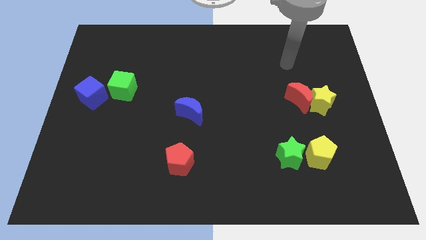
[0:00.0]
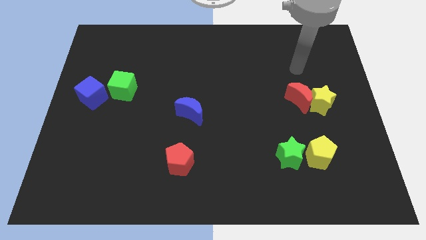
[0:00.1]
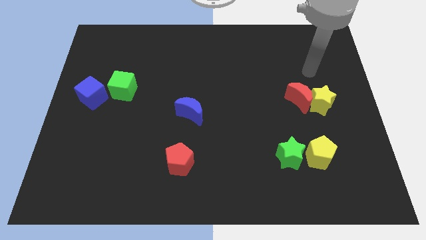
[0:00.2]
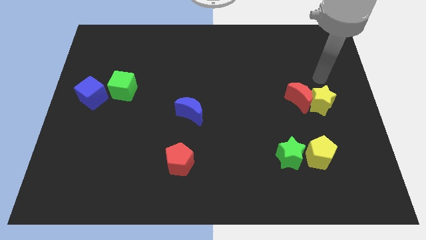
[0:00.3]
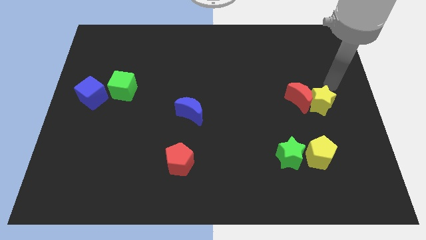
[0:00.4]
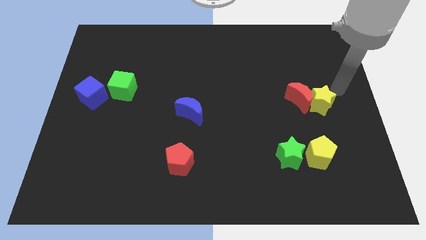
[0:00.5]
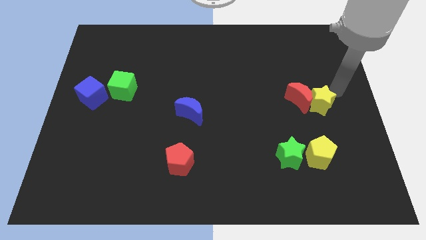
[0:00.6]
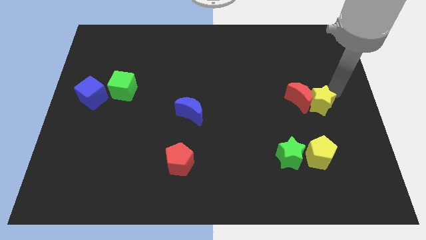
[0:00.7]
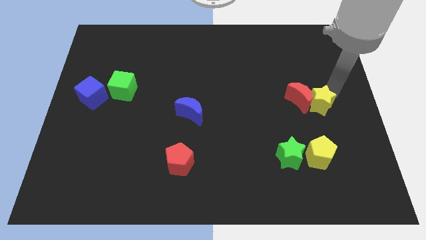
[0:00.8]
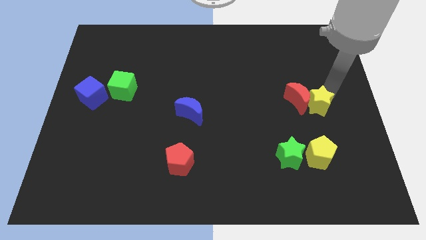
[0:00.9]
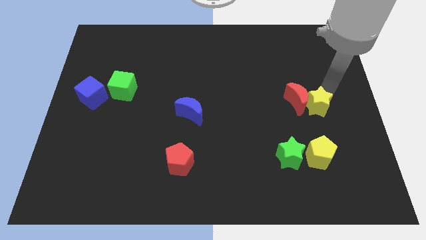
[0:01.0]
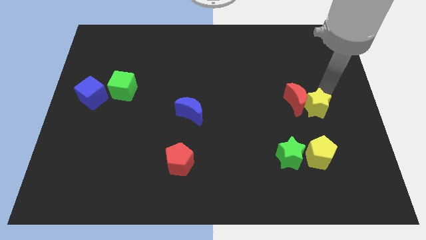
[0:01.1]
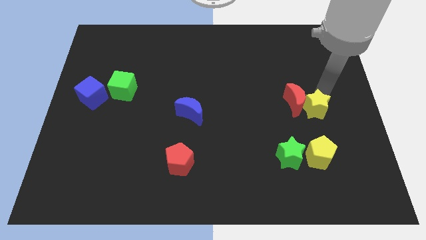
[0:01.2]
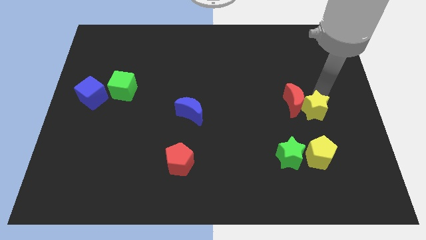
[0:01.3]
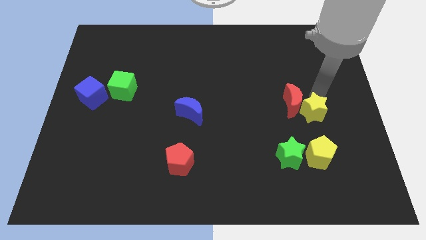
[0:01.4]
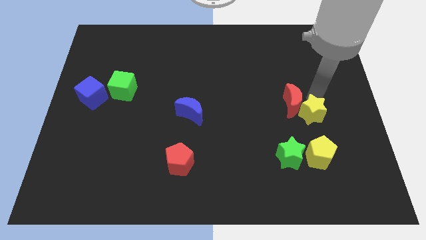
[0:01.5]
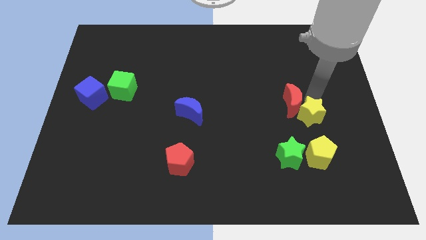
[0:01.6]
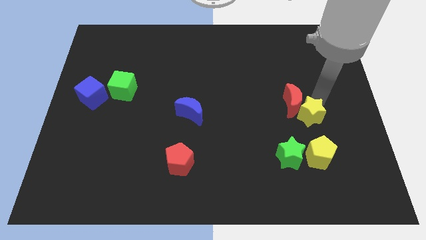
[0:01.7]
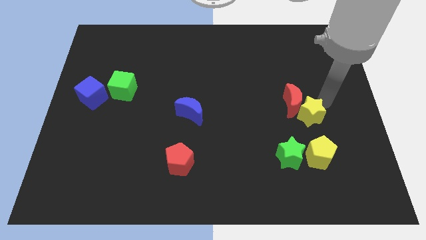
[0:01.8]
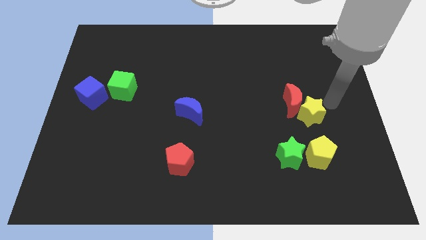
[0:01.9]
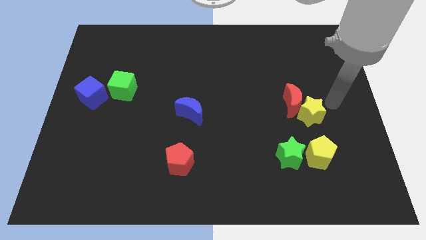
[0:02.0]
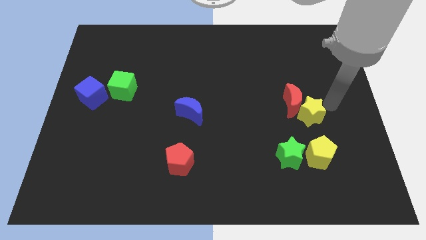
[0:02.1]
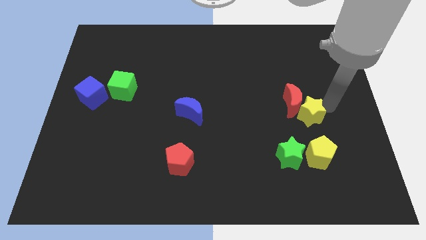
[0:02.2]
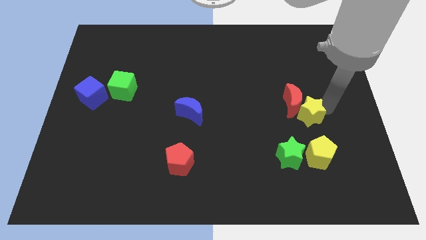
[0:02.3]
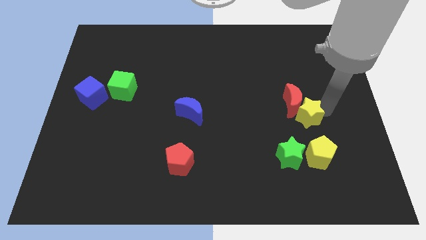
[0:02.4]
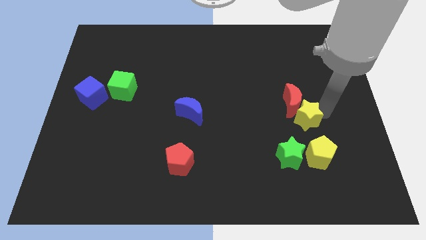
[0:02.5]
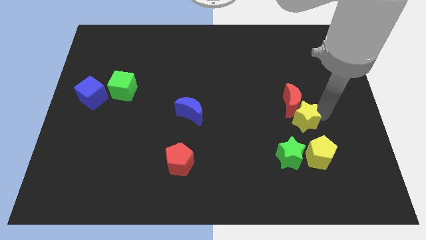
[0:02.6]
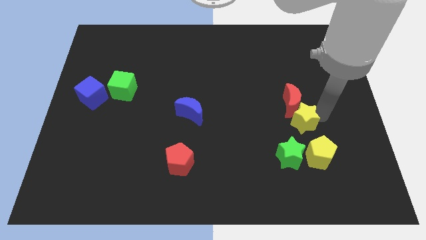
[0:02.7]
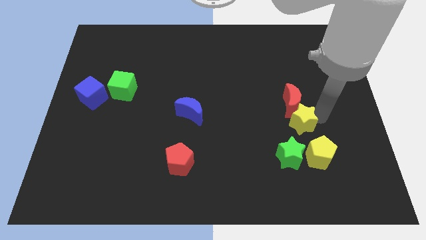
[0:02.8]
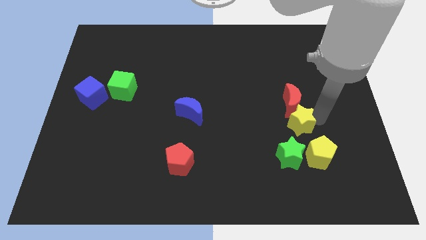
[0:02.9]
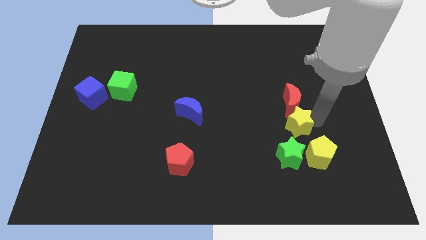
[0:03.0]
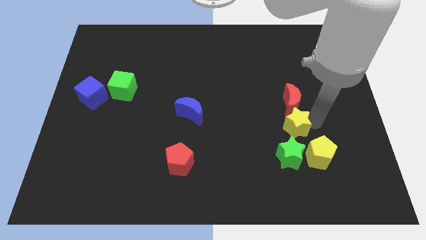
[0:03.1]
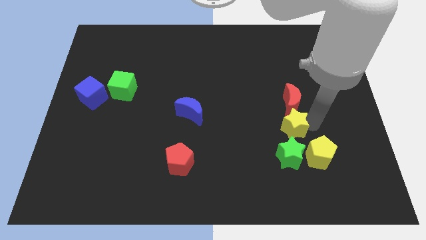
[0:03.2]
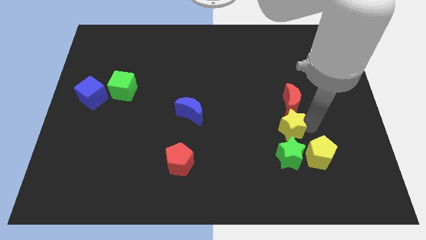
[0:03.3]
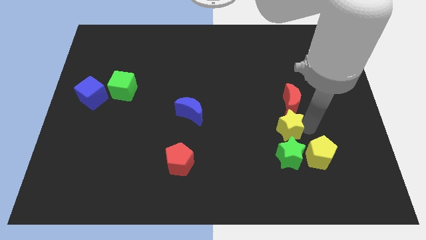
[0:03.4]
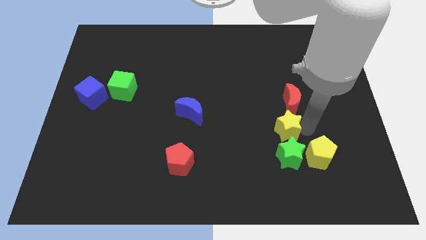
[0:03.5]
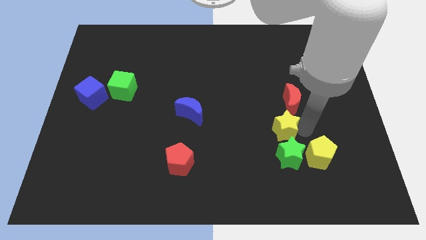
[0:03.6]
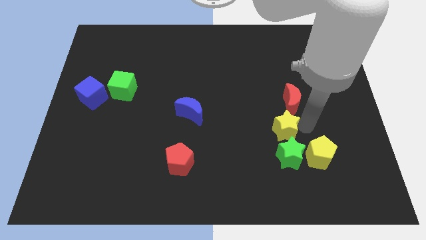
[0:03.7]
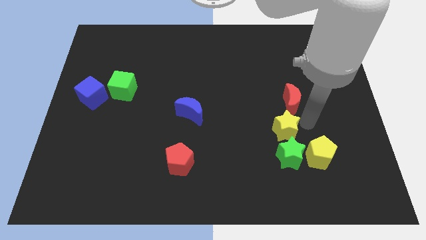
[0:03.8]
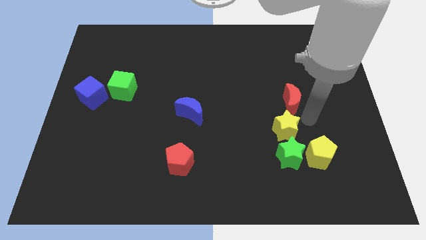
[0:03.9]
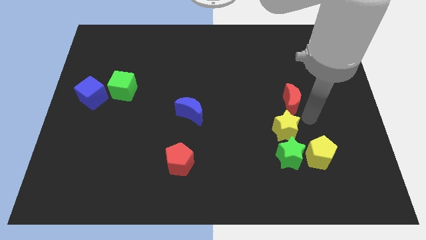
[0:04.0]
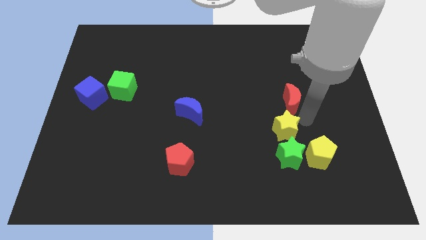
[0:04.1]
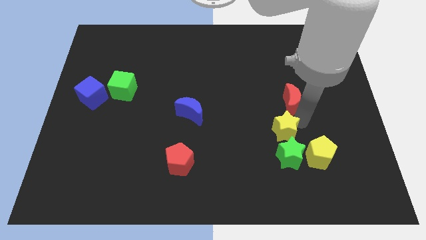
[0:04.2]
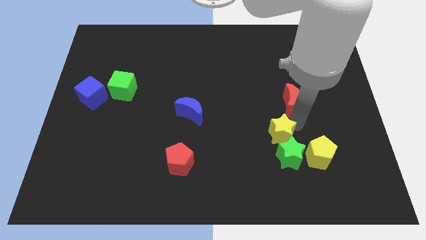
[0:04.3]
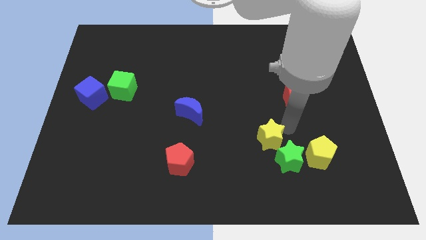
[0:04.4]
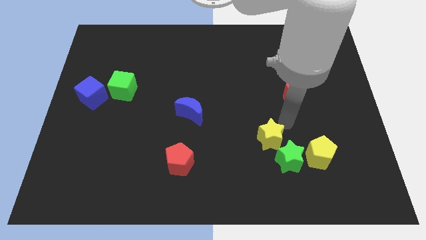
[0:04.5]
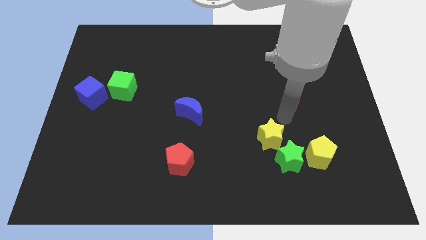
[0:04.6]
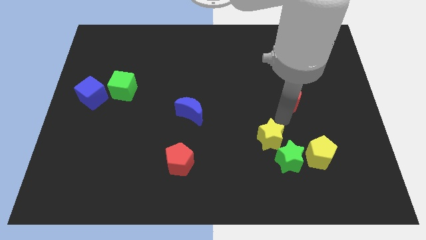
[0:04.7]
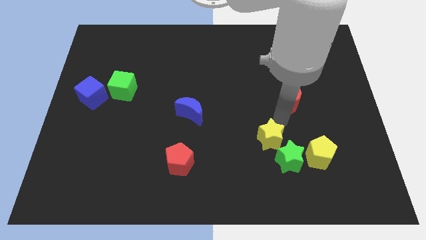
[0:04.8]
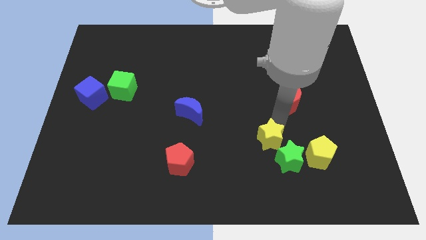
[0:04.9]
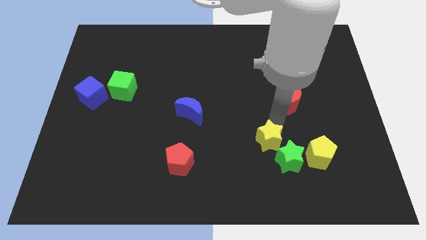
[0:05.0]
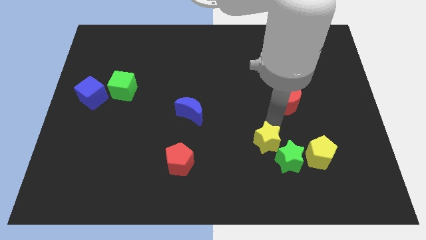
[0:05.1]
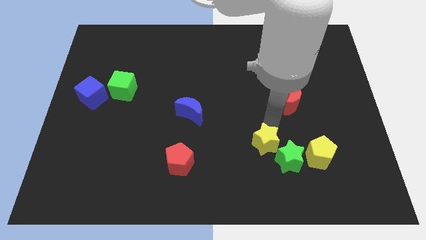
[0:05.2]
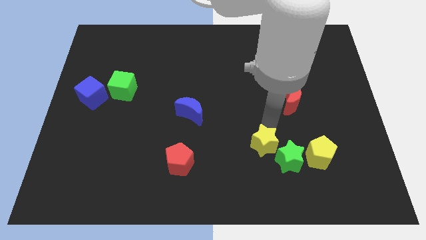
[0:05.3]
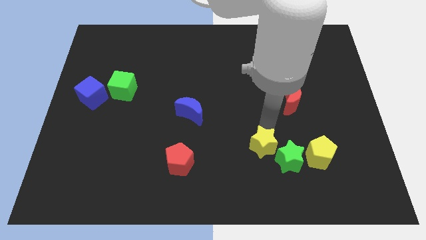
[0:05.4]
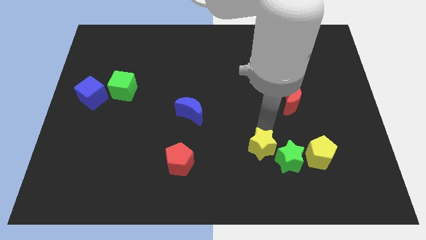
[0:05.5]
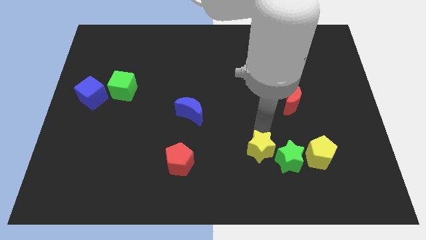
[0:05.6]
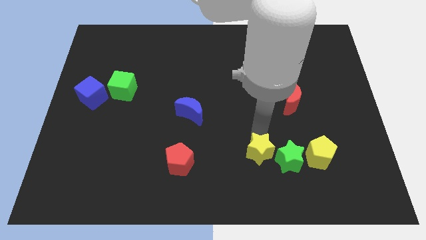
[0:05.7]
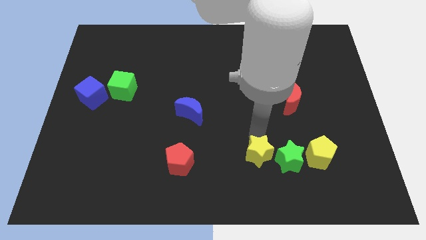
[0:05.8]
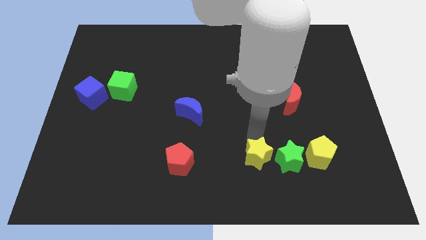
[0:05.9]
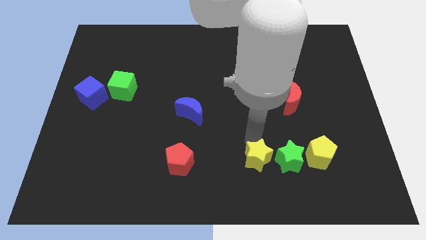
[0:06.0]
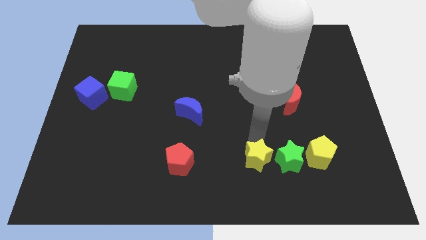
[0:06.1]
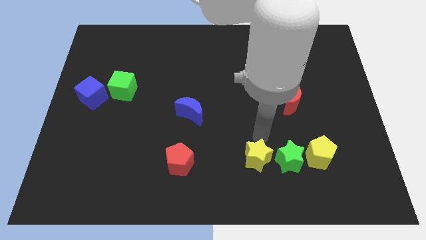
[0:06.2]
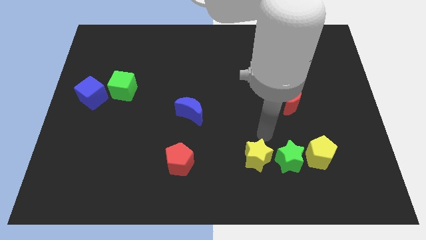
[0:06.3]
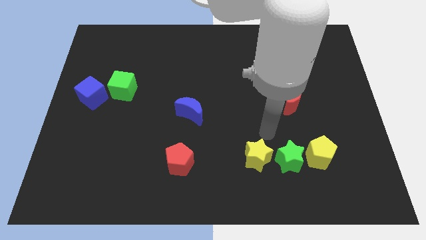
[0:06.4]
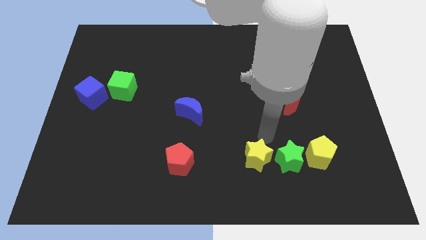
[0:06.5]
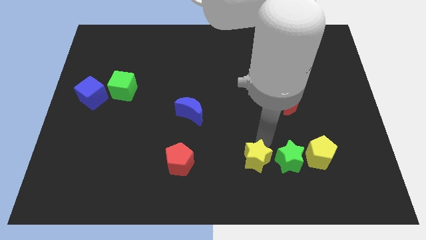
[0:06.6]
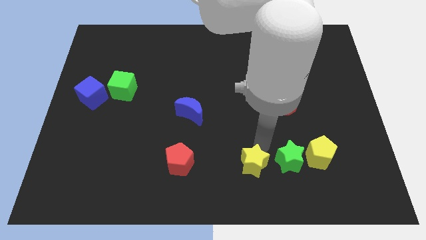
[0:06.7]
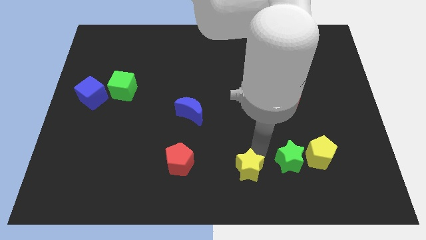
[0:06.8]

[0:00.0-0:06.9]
move the yellow star to the bottom side

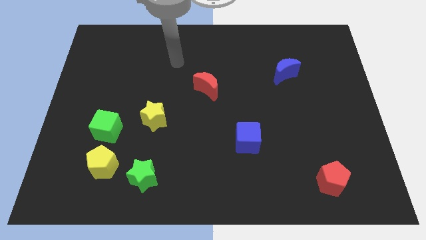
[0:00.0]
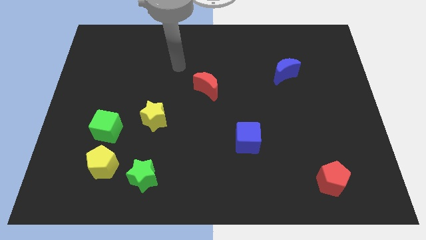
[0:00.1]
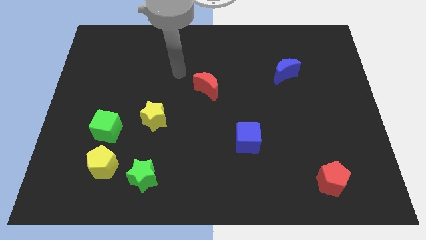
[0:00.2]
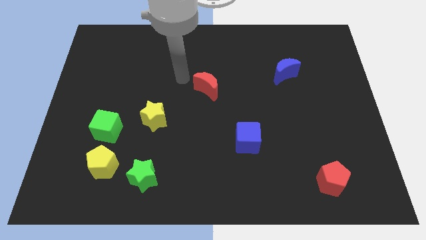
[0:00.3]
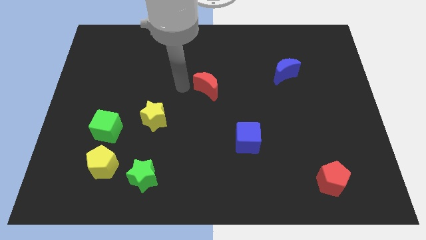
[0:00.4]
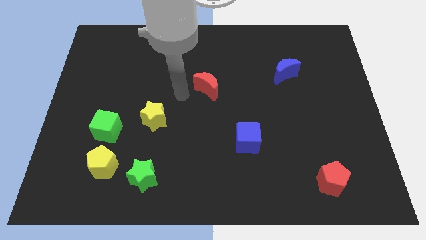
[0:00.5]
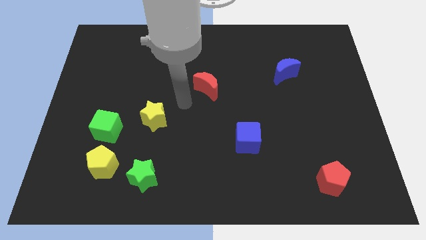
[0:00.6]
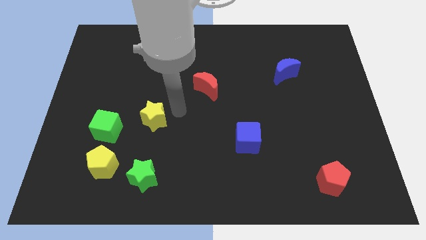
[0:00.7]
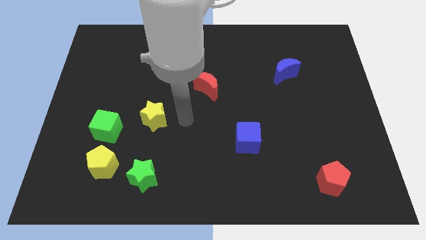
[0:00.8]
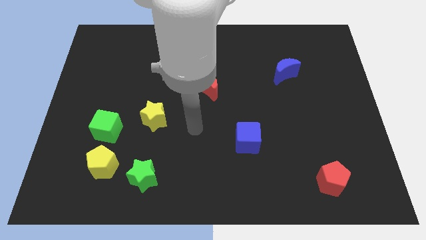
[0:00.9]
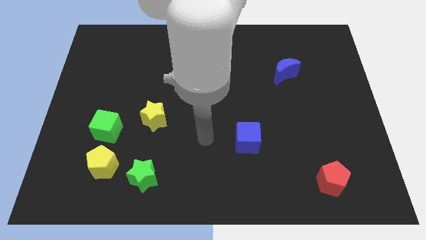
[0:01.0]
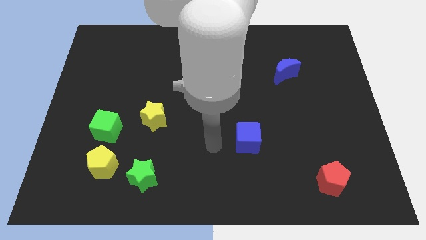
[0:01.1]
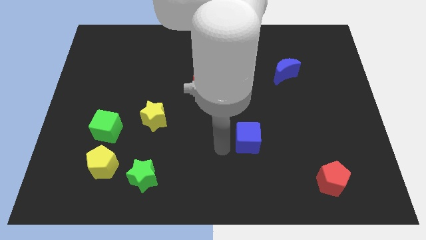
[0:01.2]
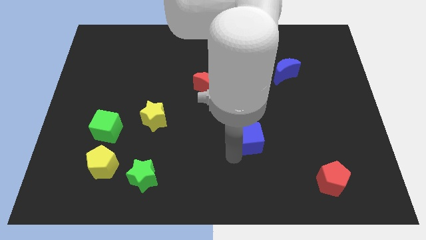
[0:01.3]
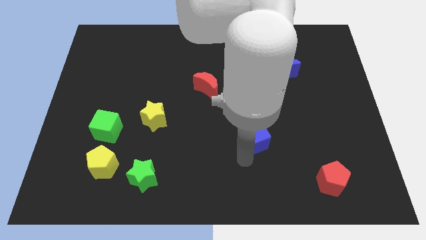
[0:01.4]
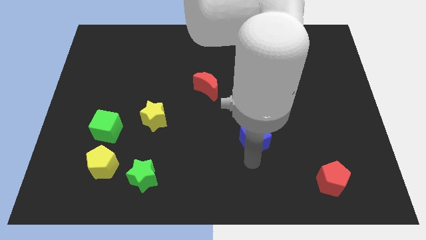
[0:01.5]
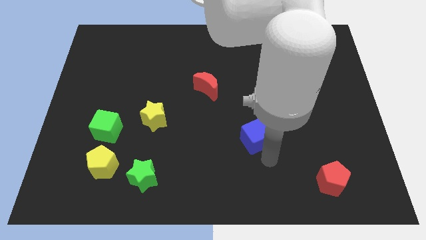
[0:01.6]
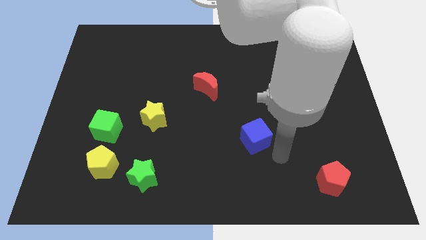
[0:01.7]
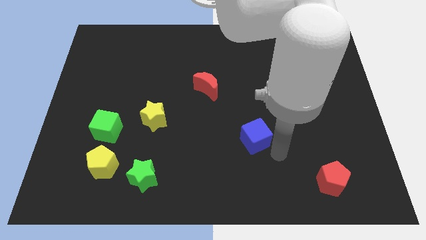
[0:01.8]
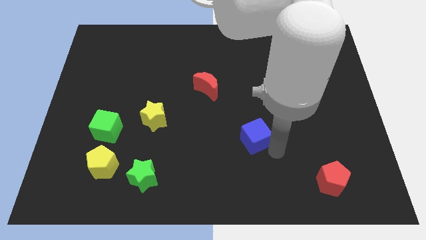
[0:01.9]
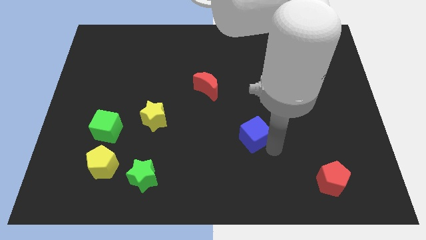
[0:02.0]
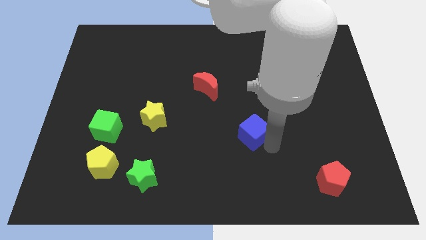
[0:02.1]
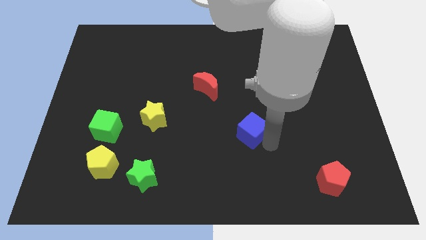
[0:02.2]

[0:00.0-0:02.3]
move the blue cube to the center of the board
